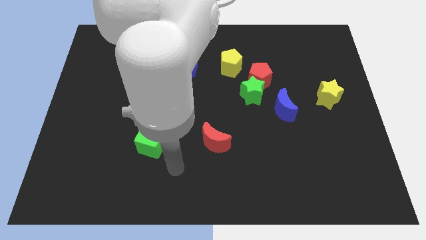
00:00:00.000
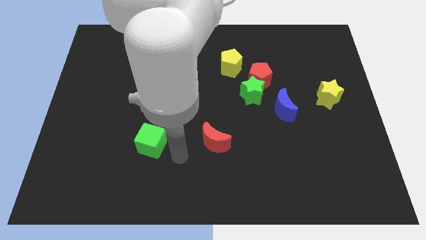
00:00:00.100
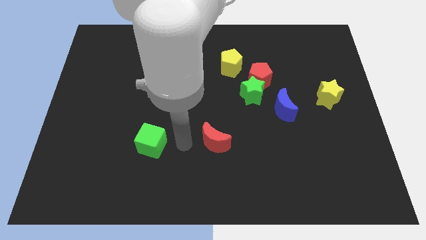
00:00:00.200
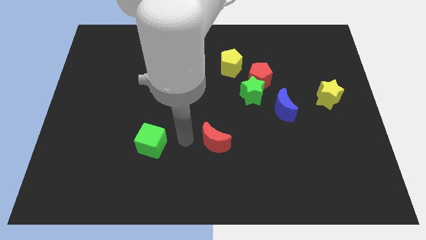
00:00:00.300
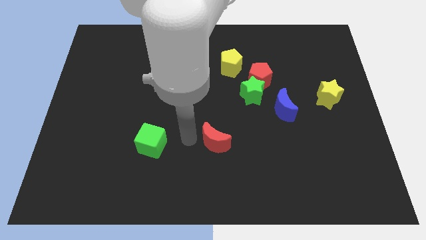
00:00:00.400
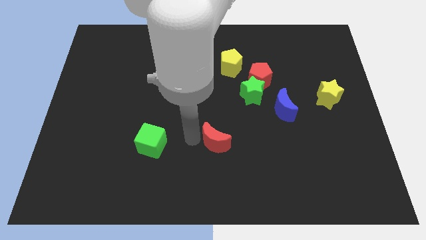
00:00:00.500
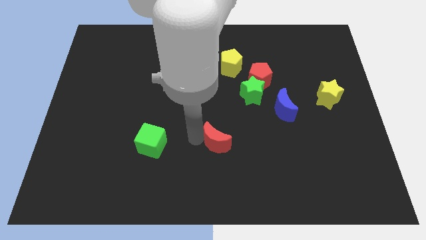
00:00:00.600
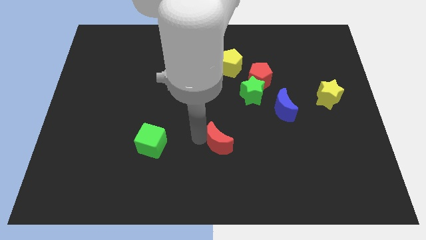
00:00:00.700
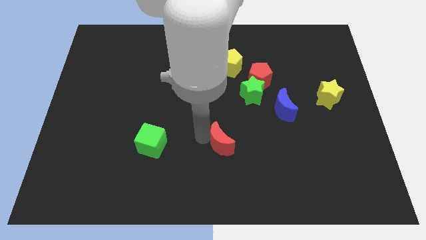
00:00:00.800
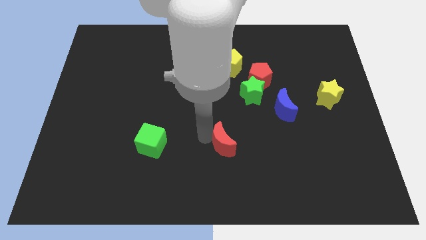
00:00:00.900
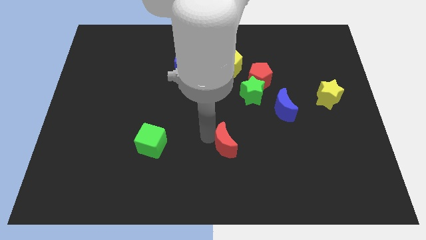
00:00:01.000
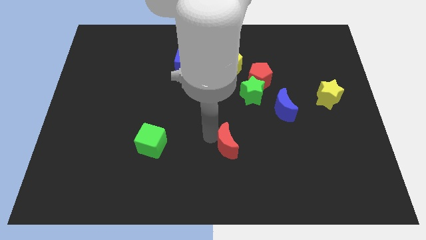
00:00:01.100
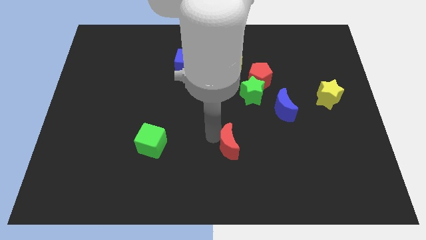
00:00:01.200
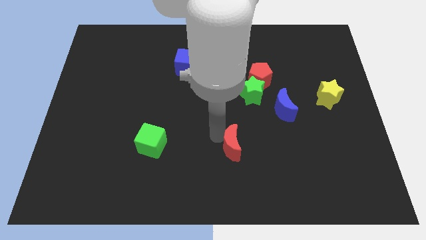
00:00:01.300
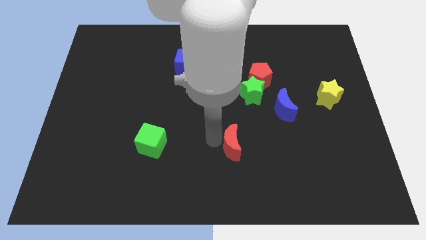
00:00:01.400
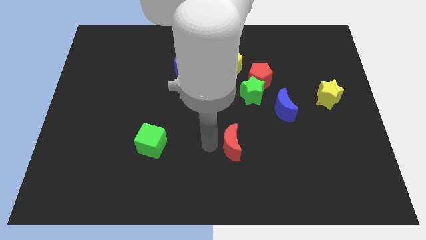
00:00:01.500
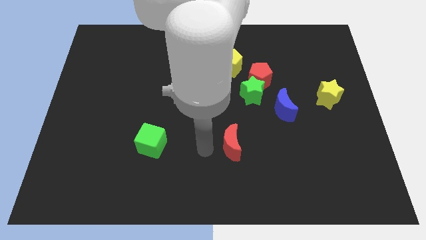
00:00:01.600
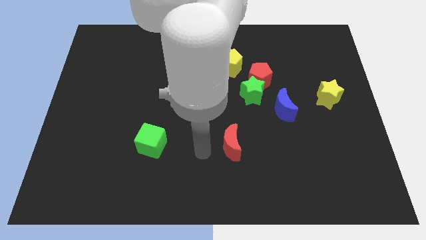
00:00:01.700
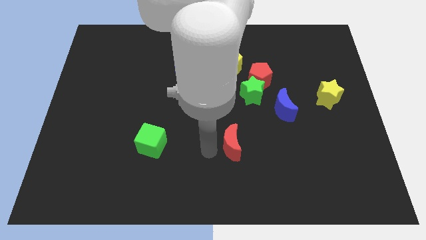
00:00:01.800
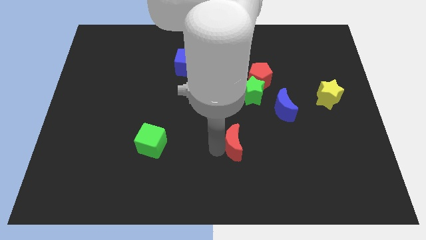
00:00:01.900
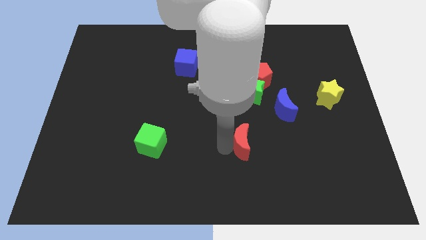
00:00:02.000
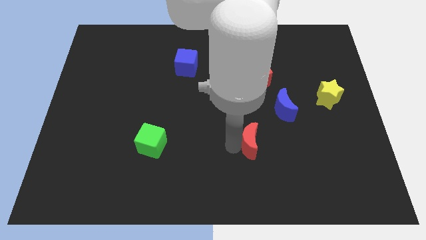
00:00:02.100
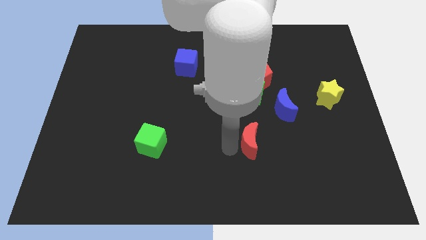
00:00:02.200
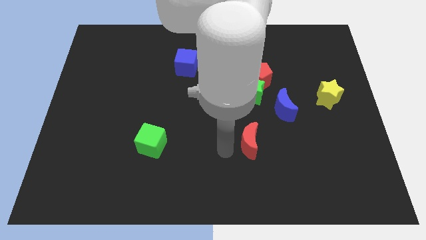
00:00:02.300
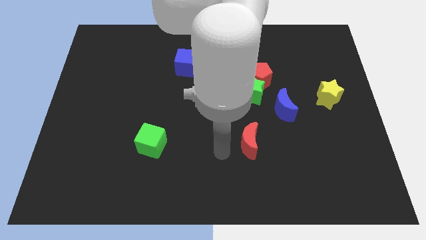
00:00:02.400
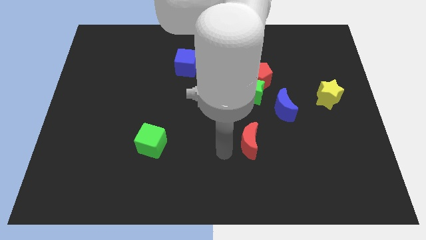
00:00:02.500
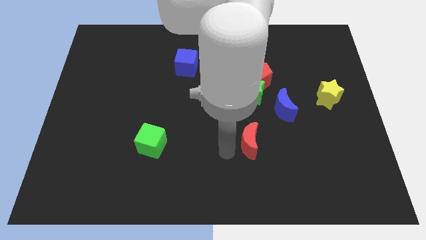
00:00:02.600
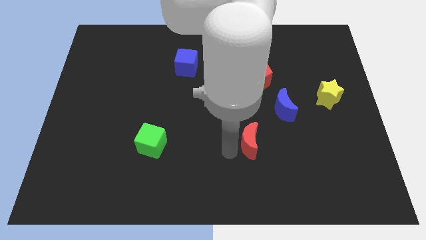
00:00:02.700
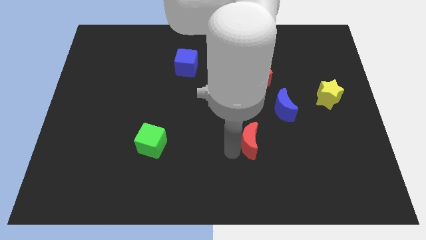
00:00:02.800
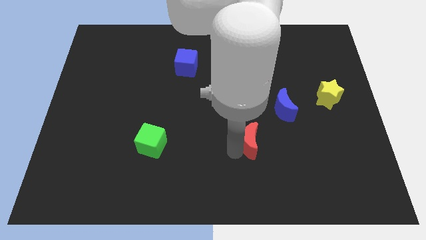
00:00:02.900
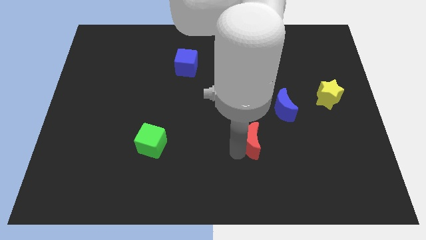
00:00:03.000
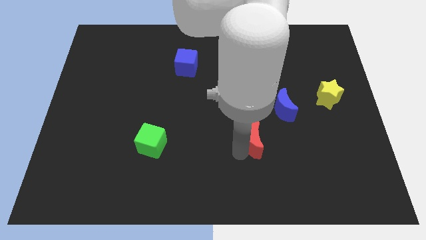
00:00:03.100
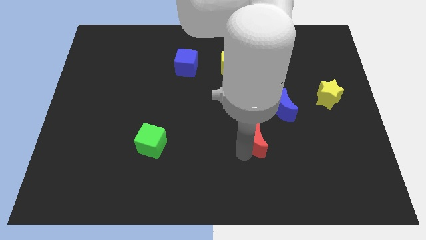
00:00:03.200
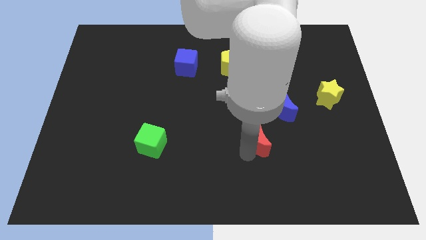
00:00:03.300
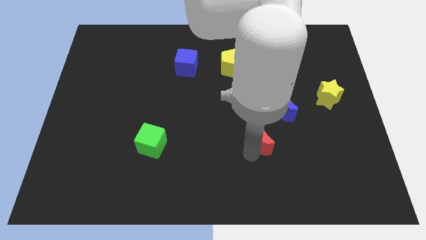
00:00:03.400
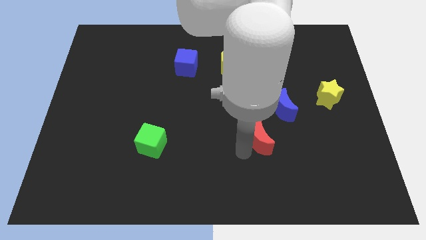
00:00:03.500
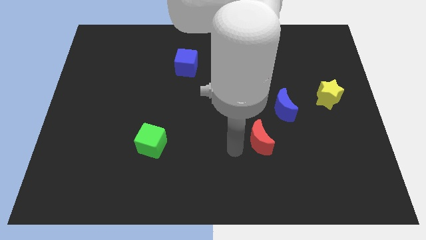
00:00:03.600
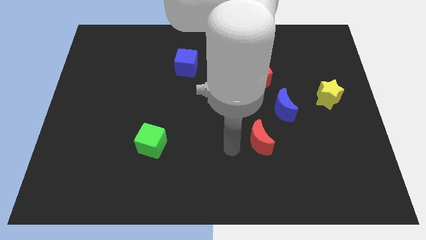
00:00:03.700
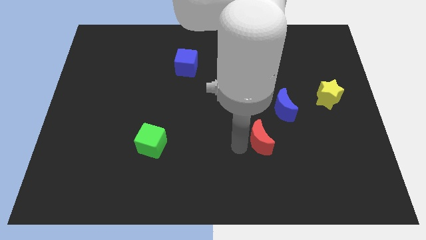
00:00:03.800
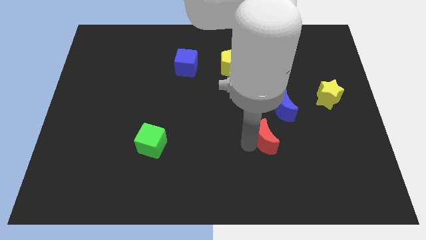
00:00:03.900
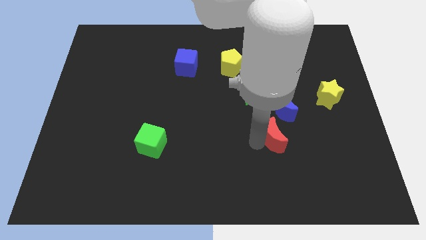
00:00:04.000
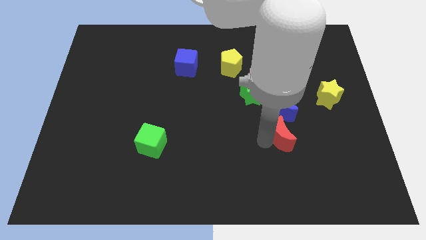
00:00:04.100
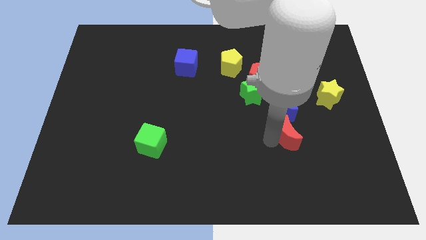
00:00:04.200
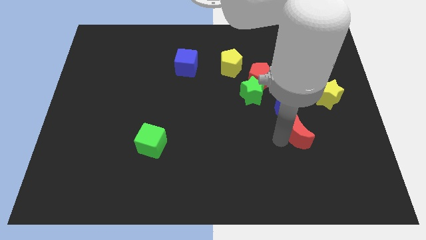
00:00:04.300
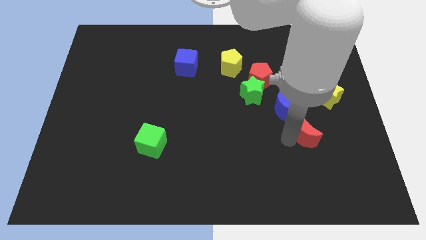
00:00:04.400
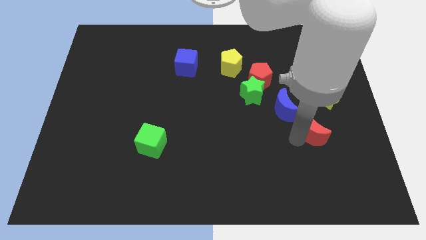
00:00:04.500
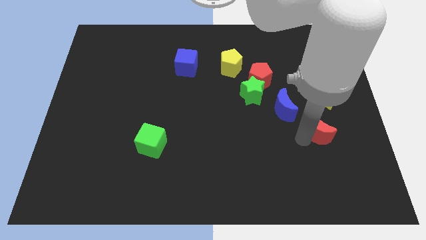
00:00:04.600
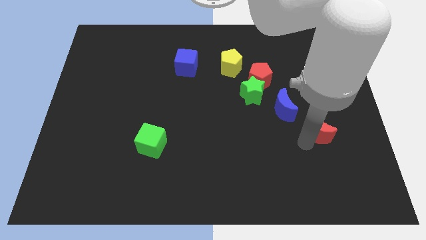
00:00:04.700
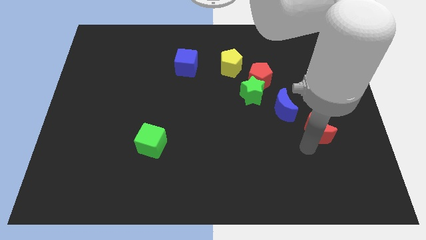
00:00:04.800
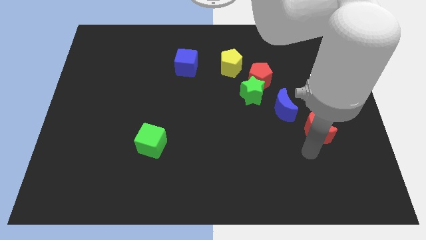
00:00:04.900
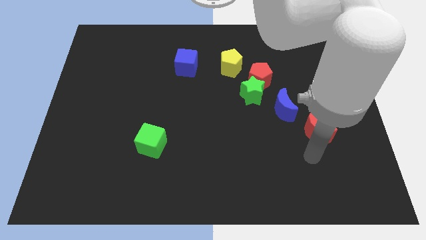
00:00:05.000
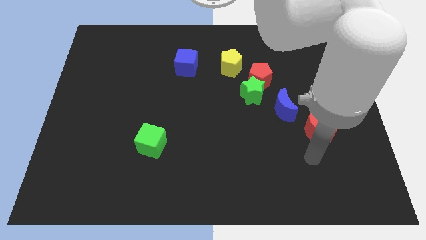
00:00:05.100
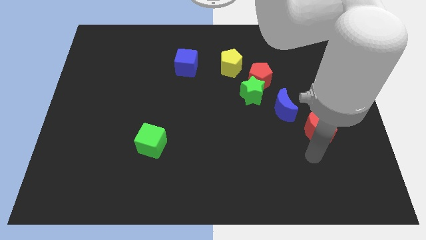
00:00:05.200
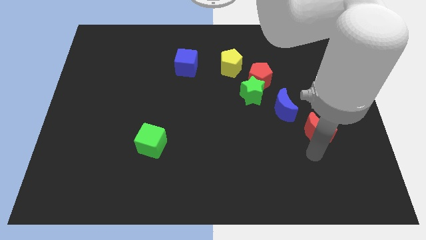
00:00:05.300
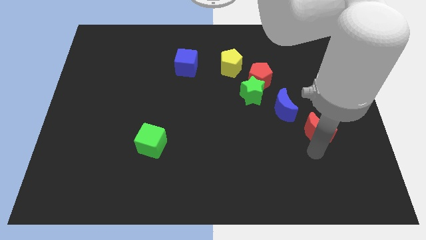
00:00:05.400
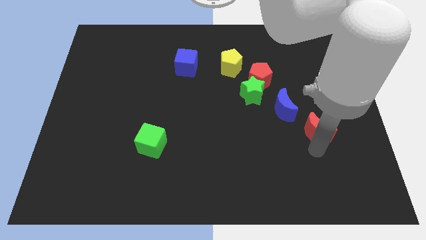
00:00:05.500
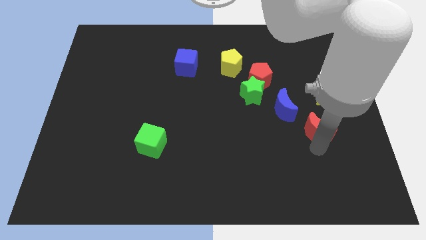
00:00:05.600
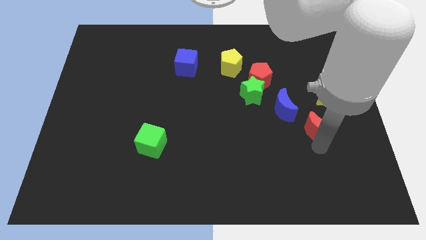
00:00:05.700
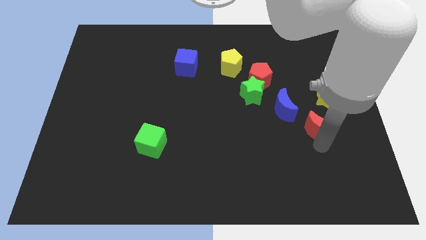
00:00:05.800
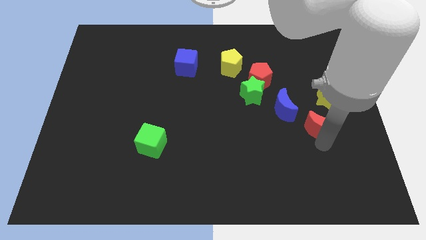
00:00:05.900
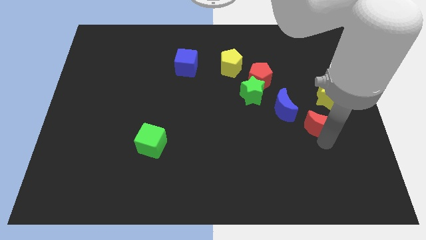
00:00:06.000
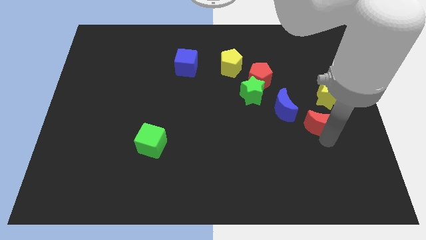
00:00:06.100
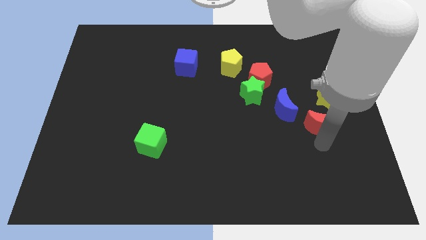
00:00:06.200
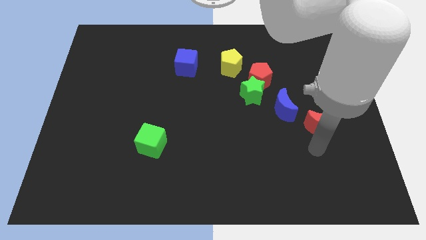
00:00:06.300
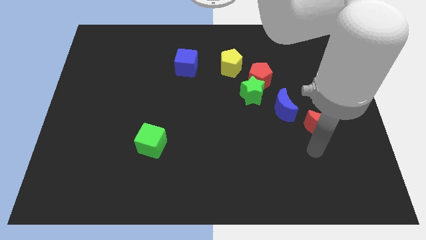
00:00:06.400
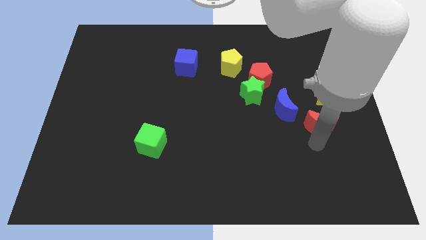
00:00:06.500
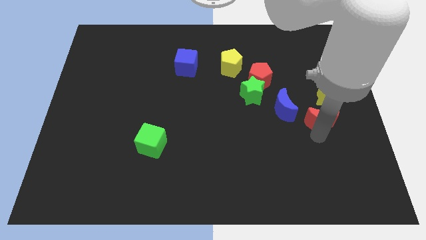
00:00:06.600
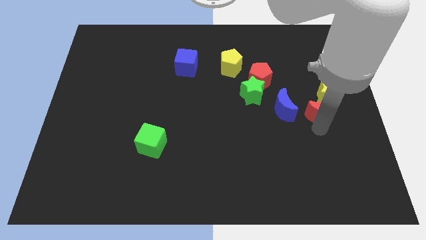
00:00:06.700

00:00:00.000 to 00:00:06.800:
slide the red moon close to the yellow star
